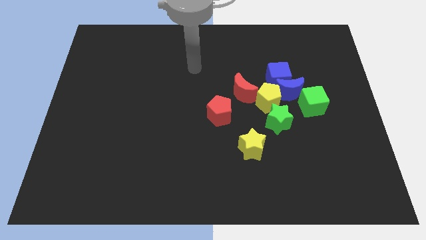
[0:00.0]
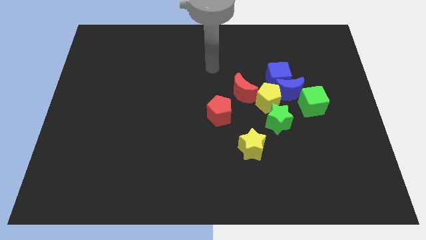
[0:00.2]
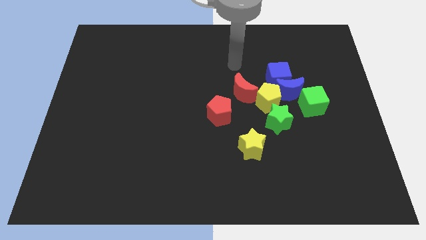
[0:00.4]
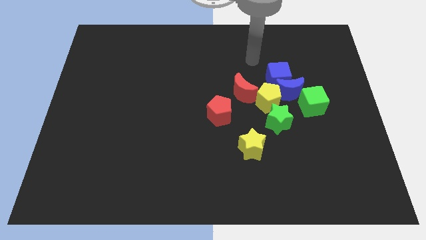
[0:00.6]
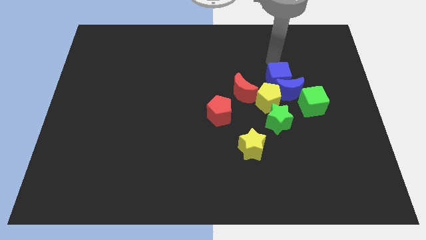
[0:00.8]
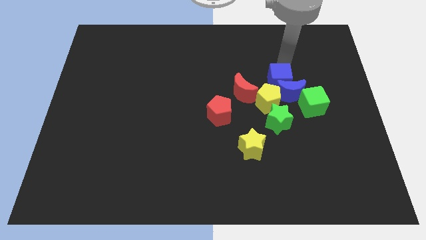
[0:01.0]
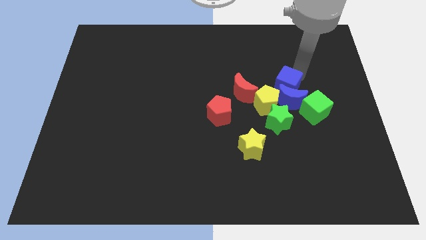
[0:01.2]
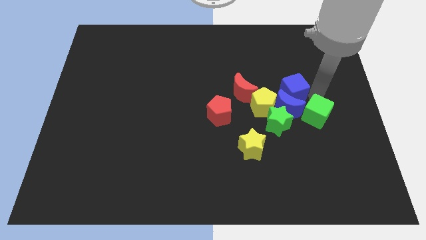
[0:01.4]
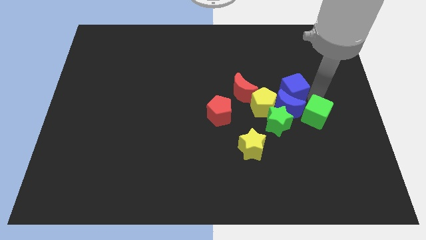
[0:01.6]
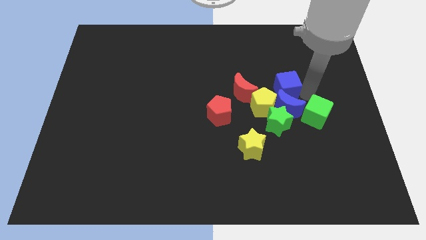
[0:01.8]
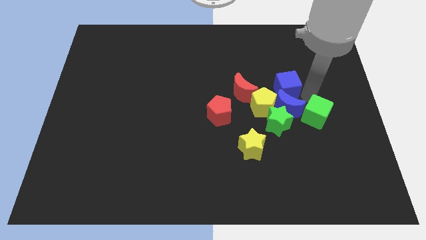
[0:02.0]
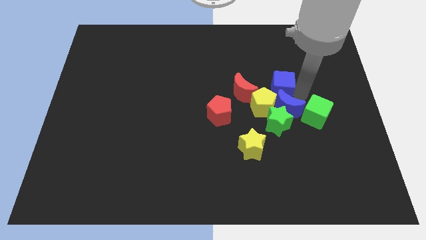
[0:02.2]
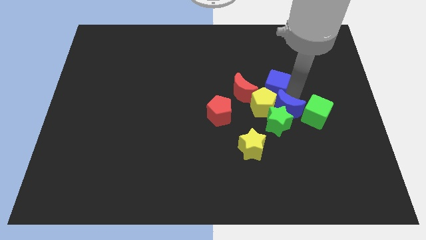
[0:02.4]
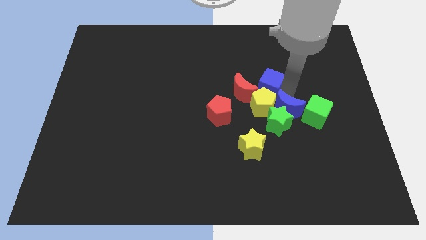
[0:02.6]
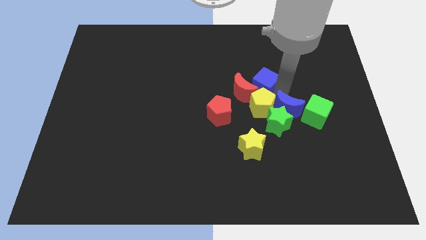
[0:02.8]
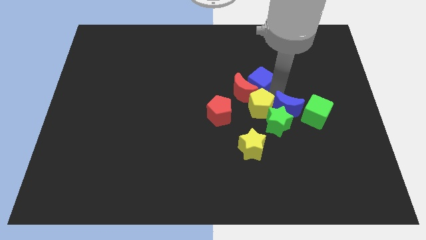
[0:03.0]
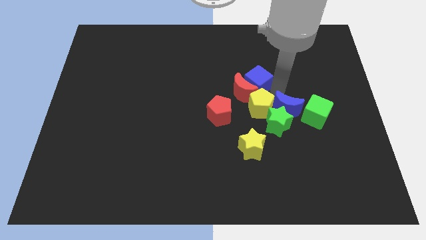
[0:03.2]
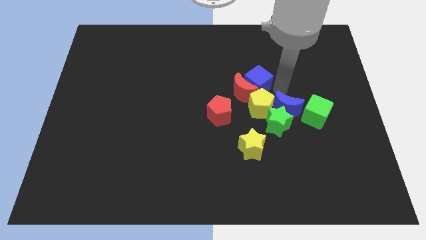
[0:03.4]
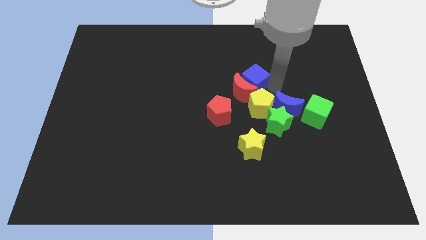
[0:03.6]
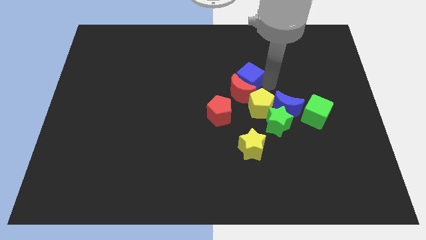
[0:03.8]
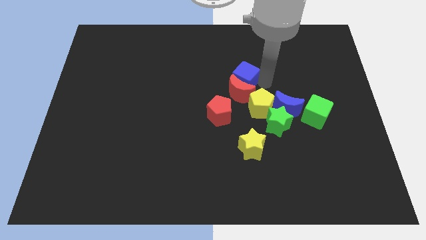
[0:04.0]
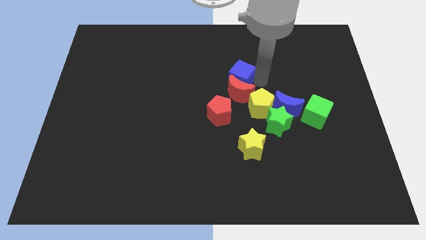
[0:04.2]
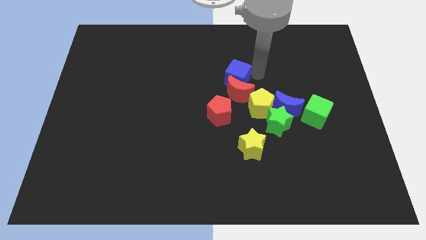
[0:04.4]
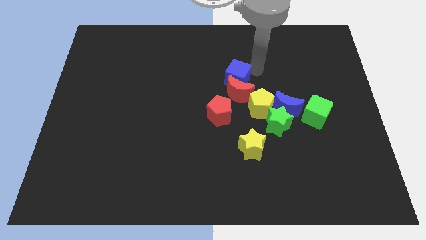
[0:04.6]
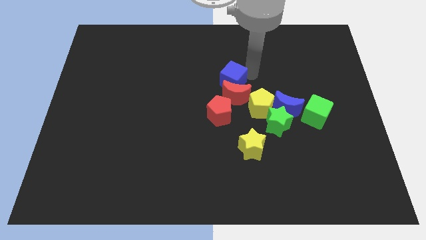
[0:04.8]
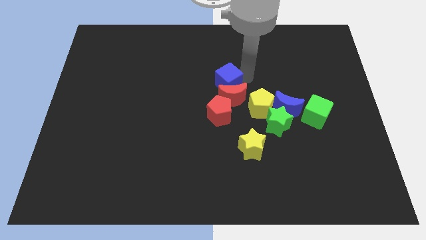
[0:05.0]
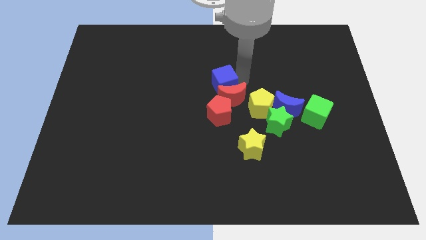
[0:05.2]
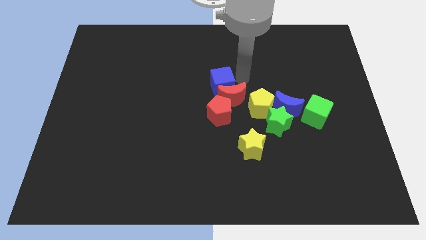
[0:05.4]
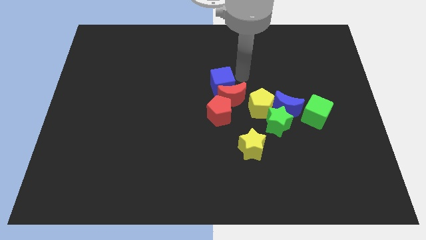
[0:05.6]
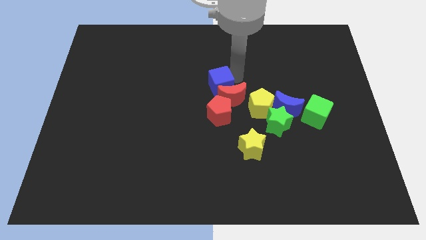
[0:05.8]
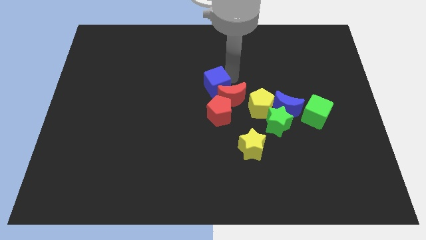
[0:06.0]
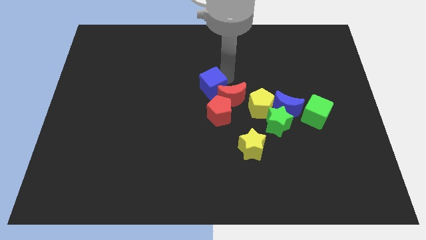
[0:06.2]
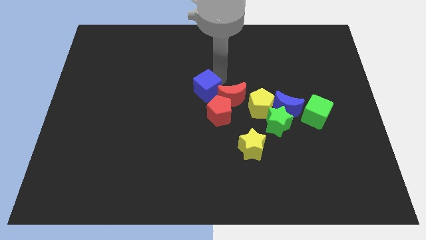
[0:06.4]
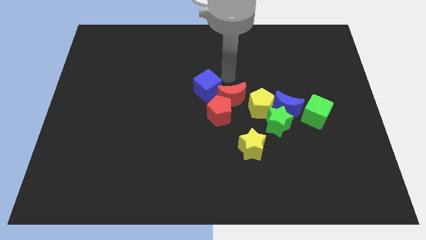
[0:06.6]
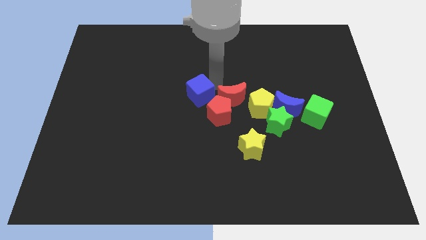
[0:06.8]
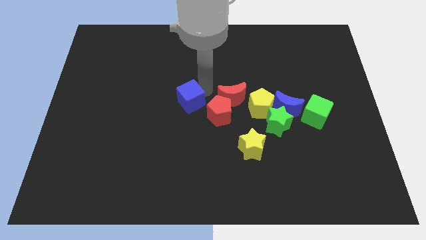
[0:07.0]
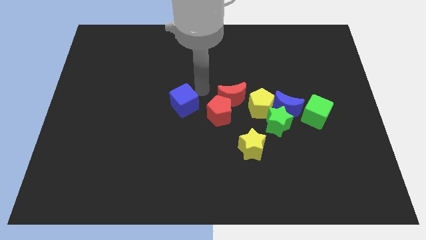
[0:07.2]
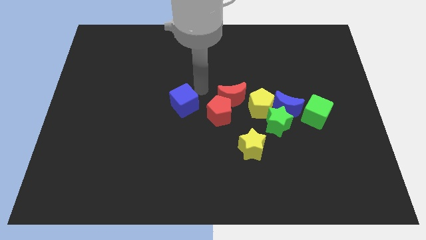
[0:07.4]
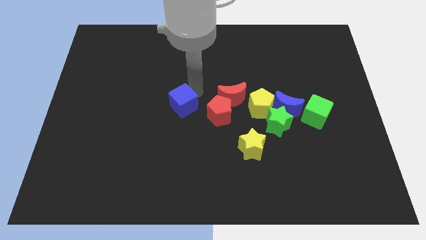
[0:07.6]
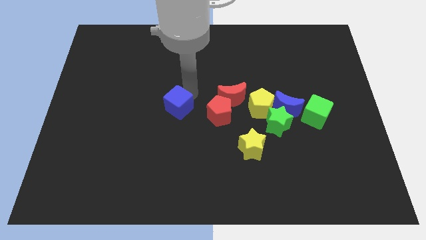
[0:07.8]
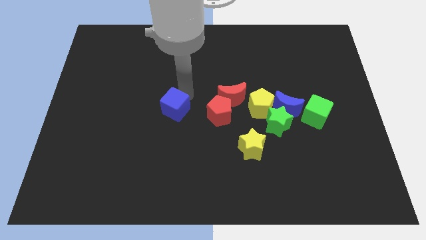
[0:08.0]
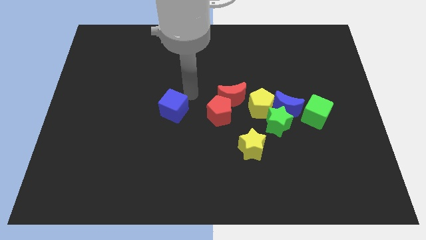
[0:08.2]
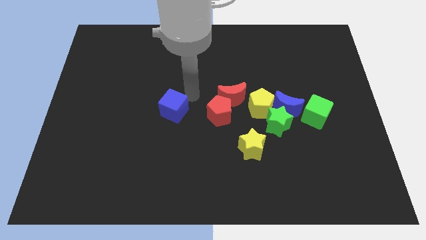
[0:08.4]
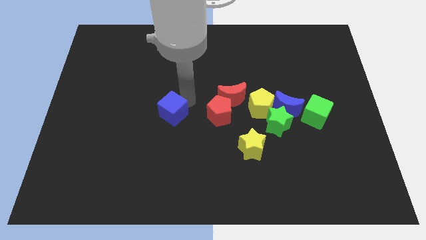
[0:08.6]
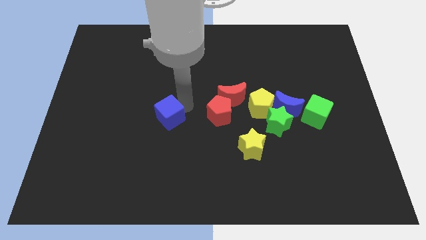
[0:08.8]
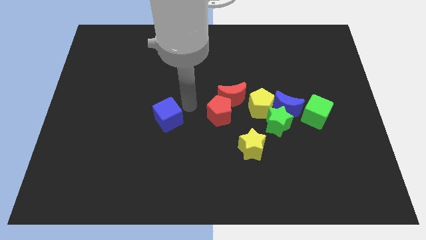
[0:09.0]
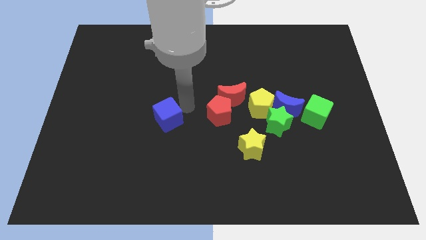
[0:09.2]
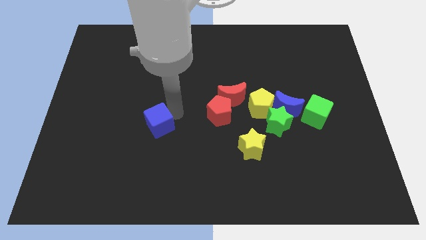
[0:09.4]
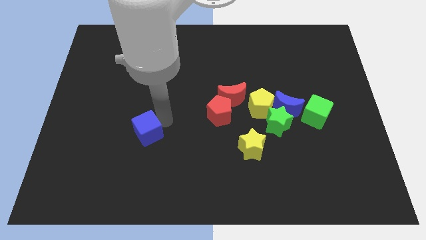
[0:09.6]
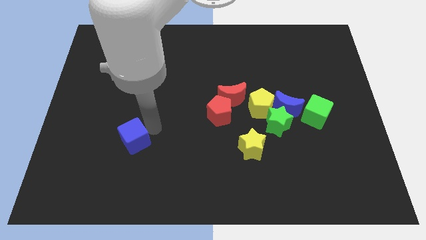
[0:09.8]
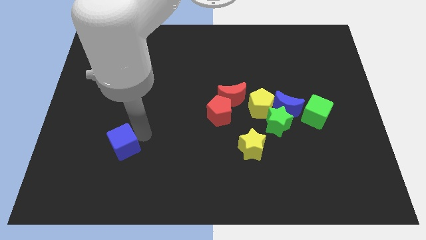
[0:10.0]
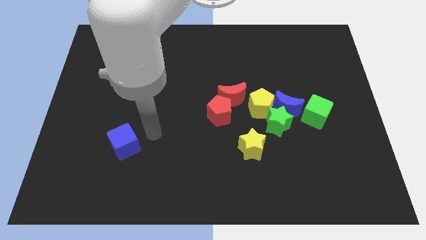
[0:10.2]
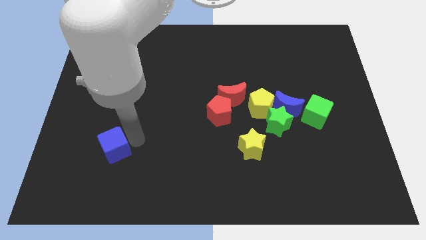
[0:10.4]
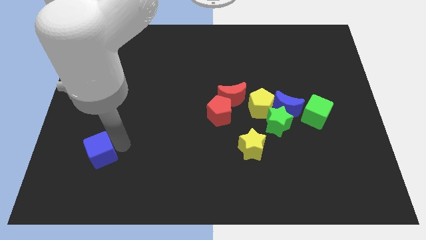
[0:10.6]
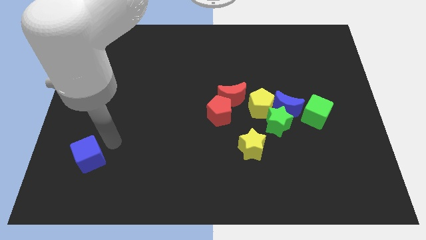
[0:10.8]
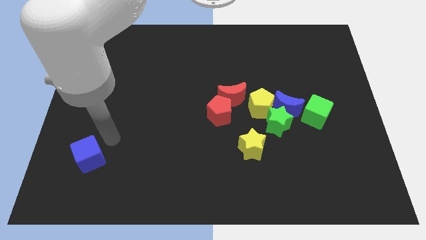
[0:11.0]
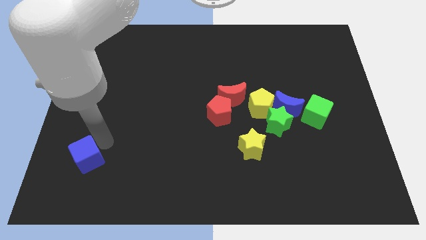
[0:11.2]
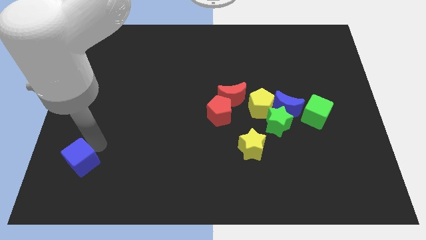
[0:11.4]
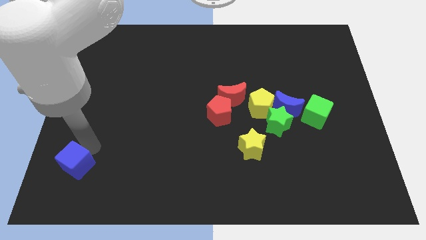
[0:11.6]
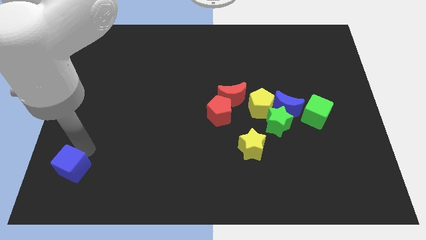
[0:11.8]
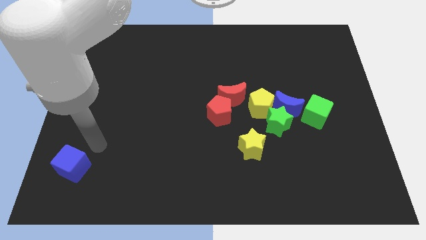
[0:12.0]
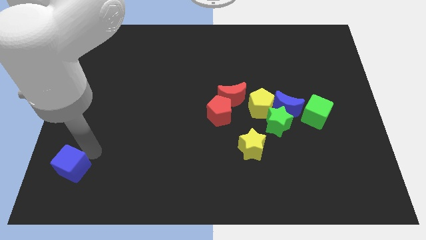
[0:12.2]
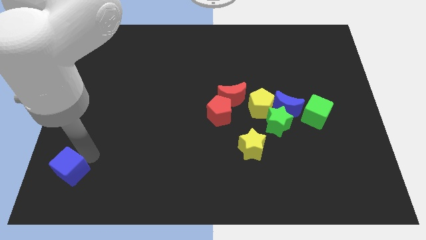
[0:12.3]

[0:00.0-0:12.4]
put the blue cube to the lower left corner
